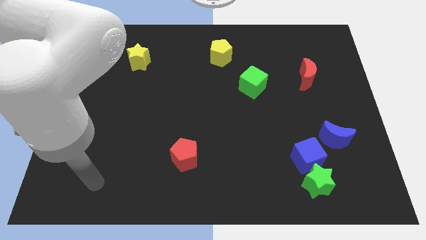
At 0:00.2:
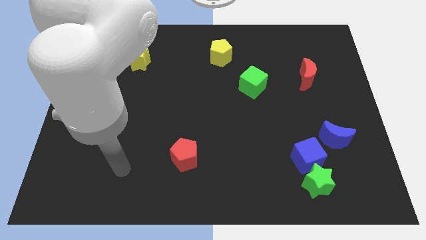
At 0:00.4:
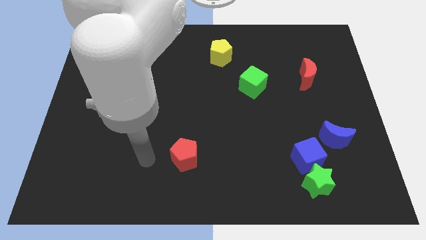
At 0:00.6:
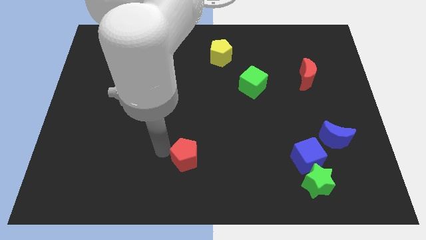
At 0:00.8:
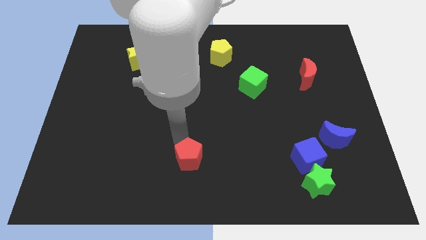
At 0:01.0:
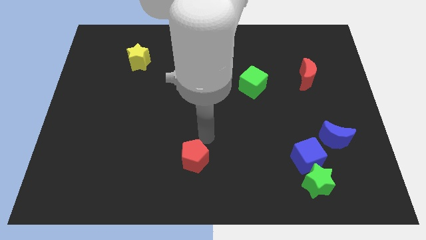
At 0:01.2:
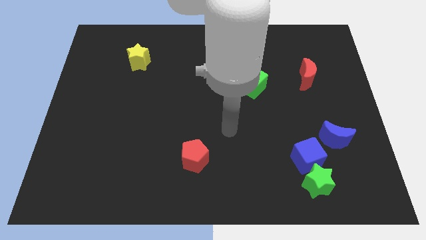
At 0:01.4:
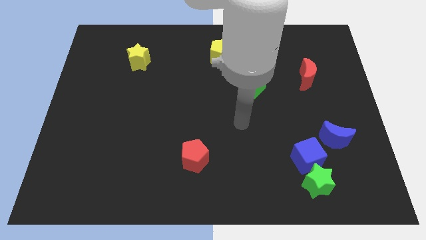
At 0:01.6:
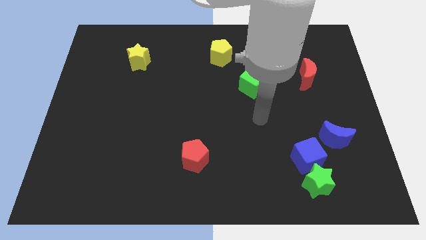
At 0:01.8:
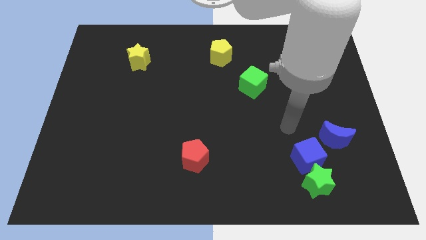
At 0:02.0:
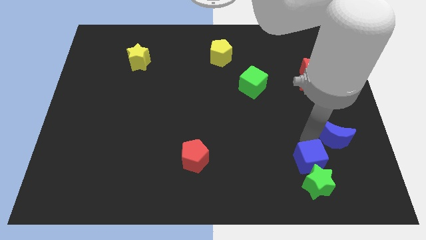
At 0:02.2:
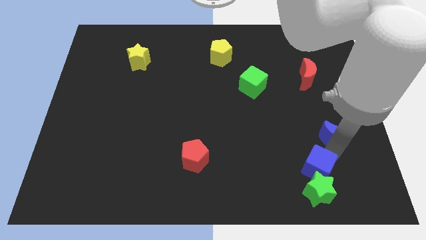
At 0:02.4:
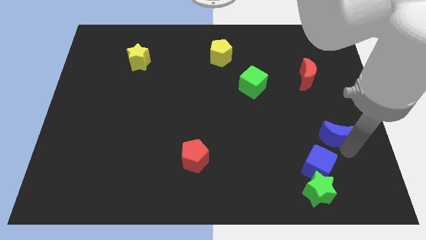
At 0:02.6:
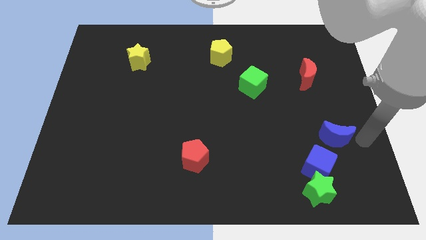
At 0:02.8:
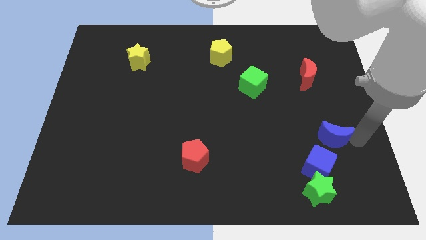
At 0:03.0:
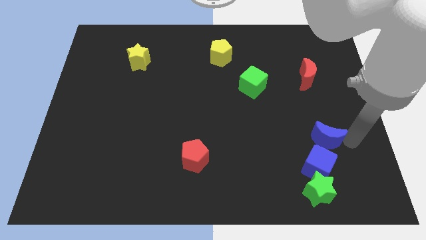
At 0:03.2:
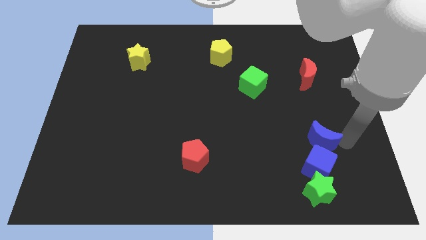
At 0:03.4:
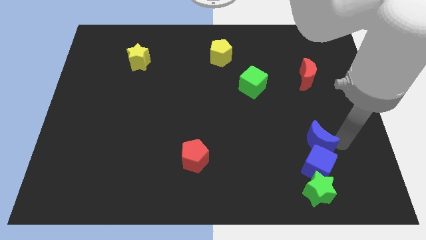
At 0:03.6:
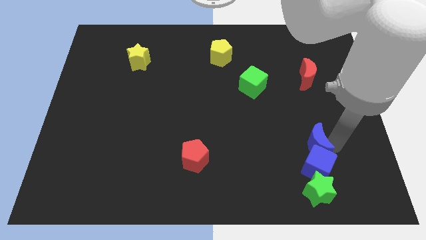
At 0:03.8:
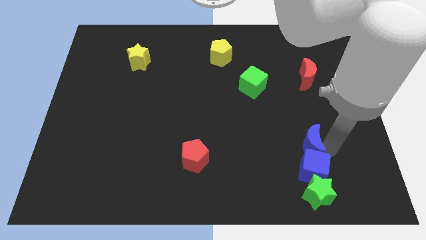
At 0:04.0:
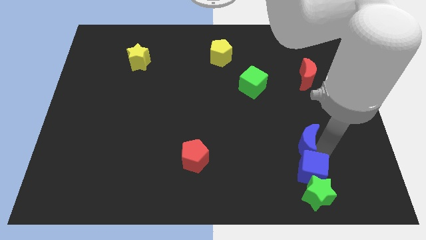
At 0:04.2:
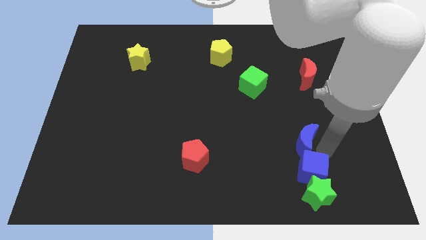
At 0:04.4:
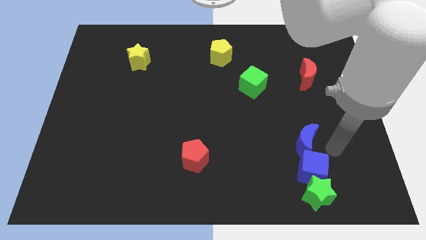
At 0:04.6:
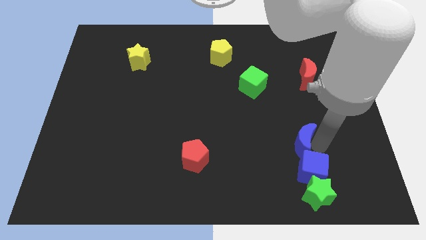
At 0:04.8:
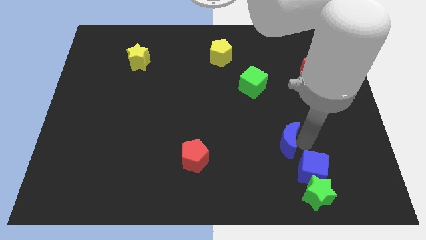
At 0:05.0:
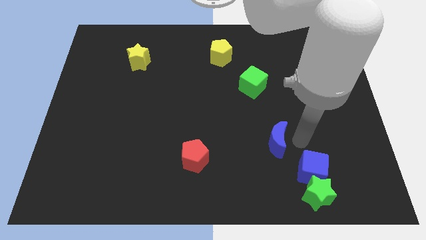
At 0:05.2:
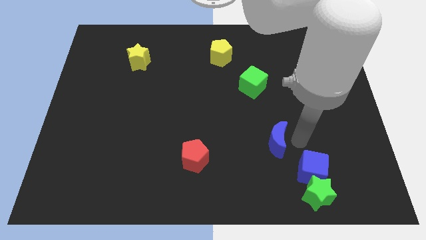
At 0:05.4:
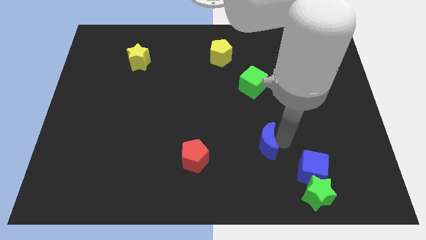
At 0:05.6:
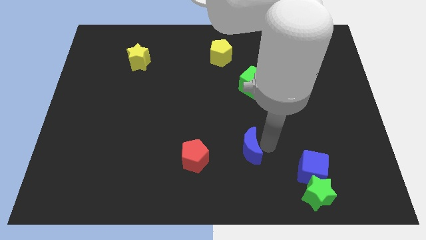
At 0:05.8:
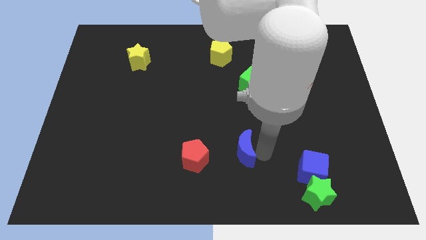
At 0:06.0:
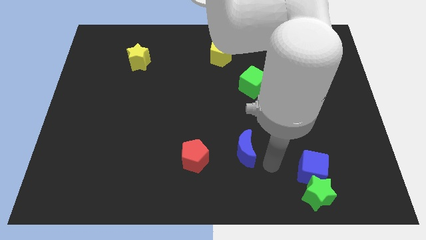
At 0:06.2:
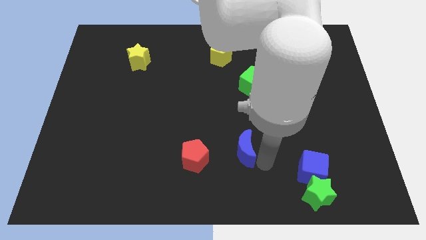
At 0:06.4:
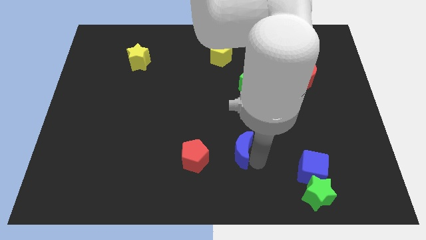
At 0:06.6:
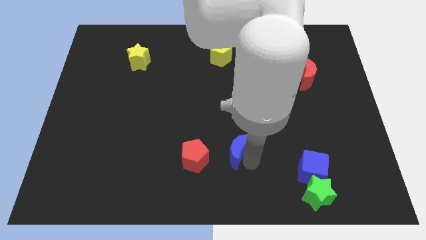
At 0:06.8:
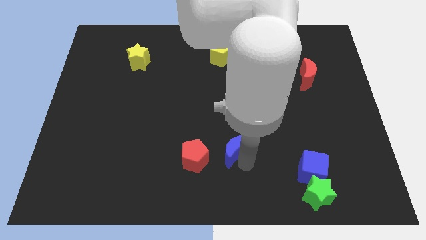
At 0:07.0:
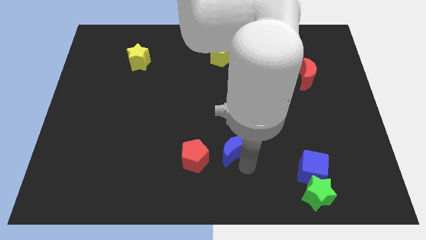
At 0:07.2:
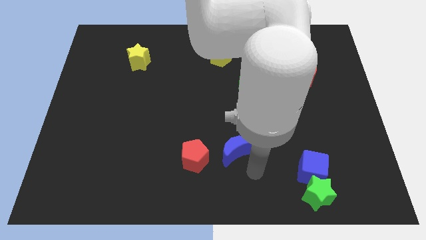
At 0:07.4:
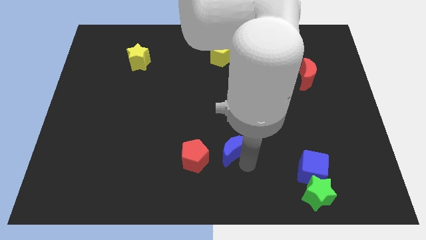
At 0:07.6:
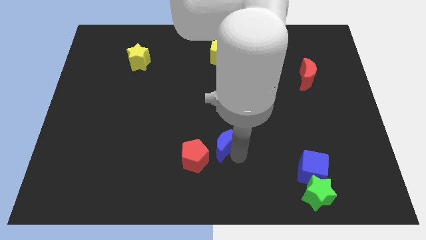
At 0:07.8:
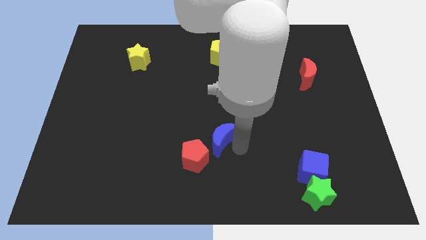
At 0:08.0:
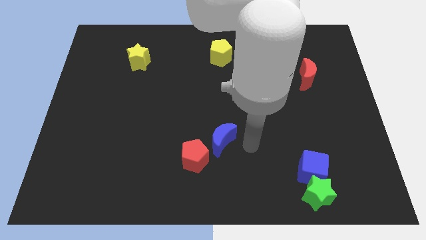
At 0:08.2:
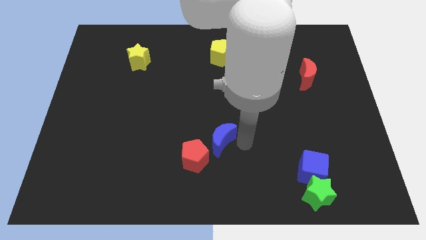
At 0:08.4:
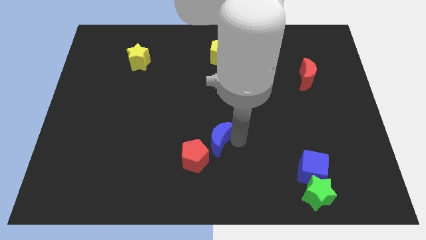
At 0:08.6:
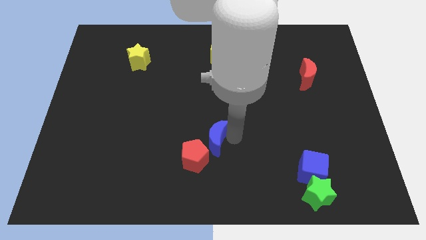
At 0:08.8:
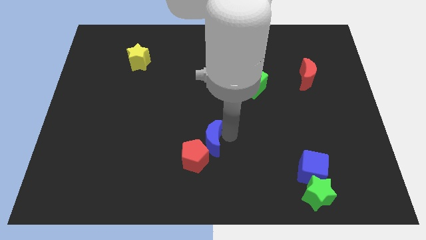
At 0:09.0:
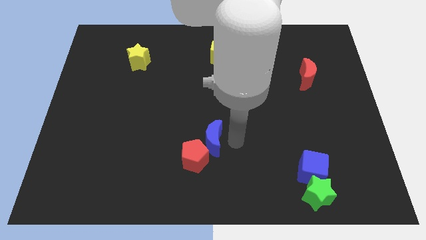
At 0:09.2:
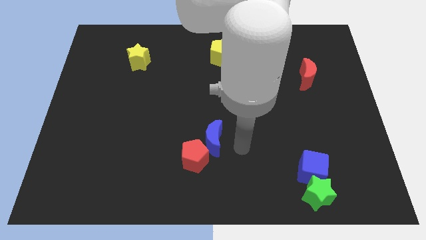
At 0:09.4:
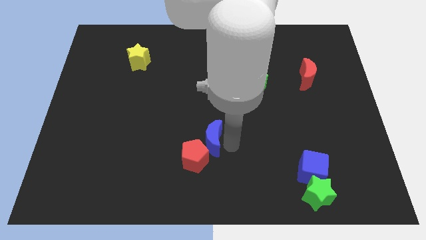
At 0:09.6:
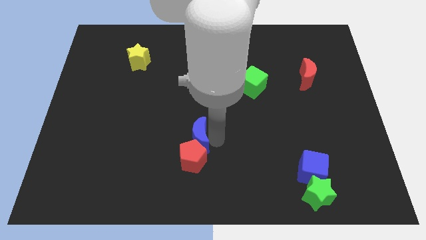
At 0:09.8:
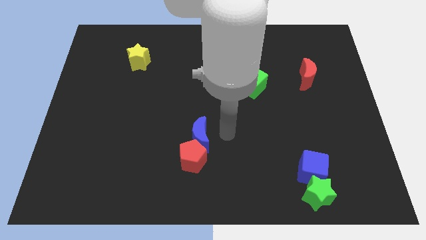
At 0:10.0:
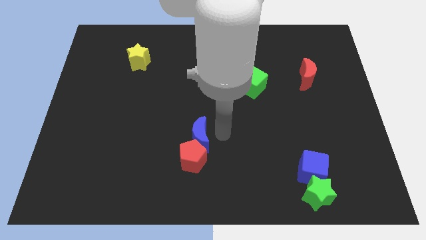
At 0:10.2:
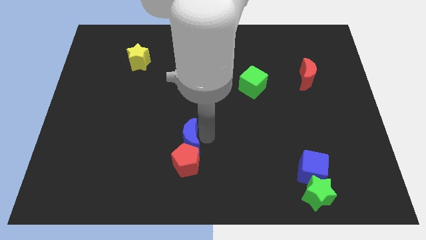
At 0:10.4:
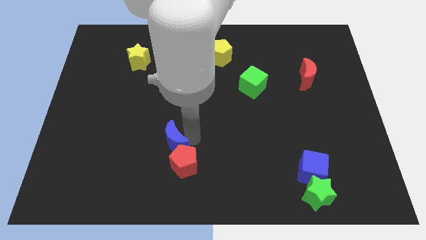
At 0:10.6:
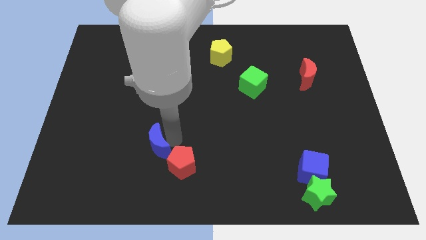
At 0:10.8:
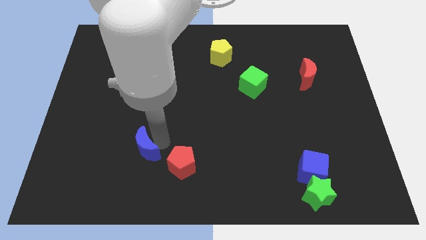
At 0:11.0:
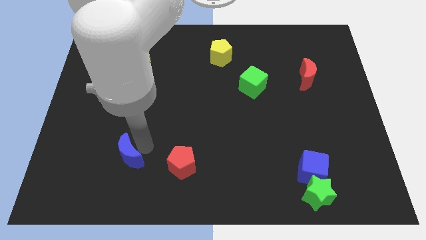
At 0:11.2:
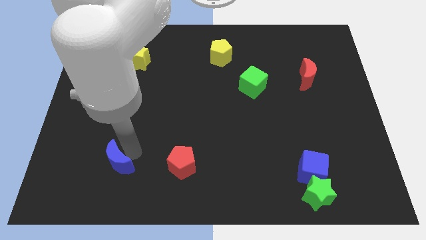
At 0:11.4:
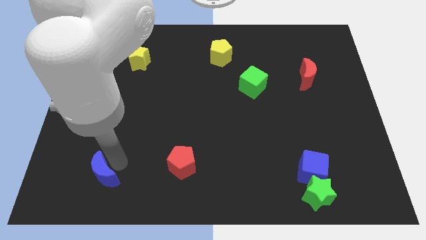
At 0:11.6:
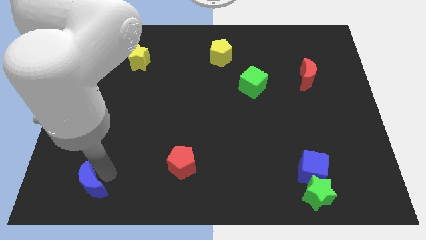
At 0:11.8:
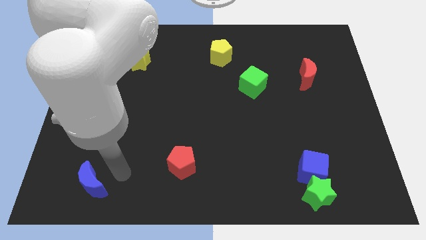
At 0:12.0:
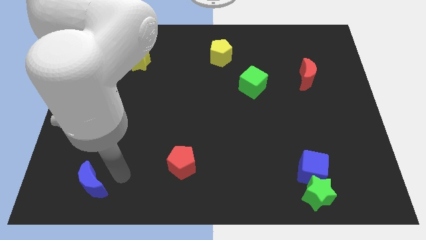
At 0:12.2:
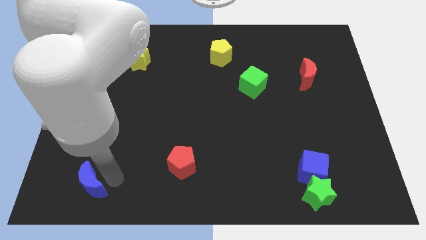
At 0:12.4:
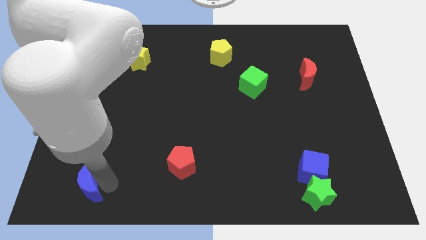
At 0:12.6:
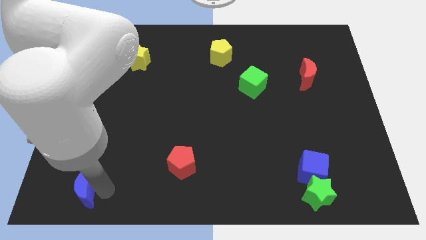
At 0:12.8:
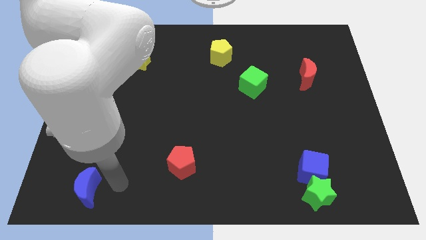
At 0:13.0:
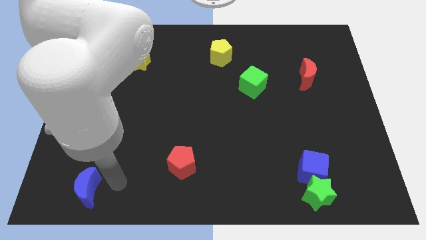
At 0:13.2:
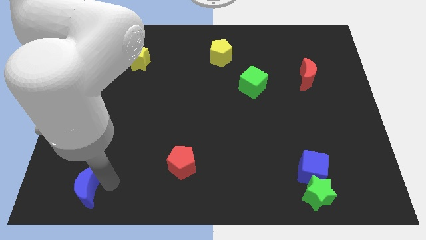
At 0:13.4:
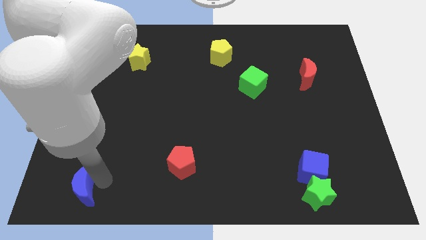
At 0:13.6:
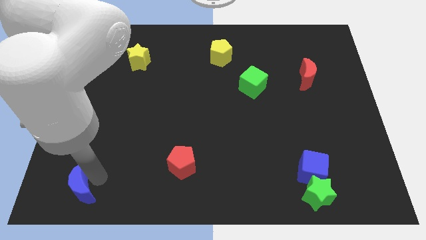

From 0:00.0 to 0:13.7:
push the blue moon to the bottom left corner

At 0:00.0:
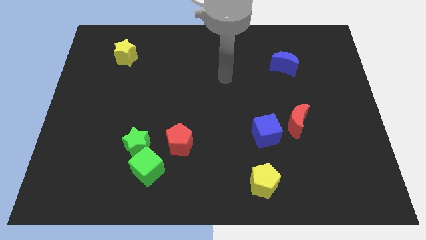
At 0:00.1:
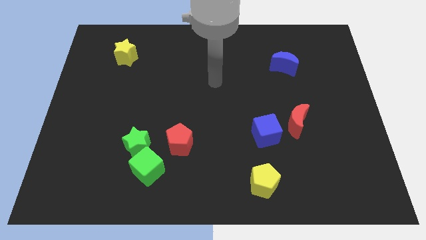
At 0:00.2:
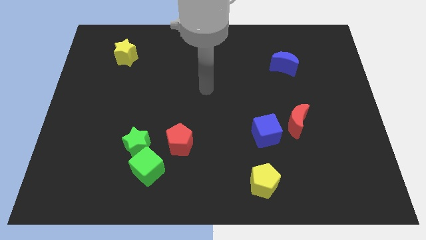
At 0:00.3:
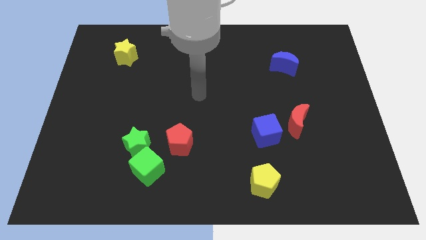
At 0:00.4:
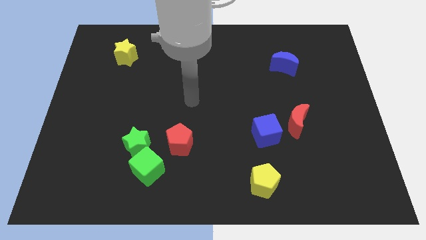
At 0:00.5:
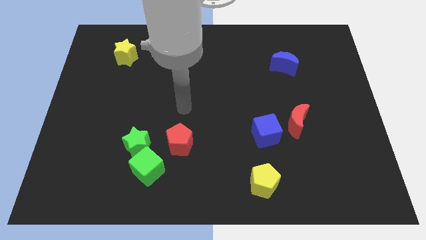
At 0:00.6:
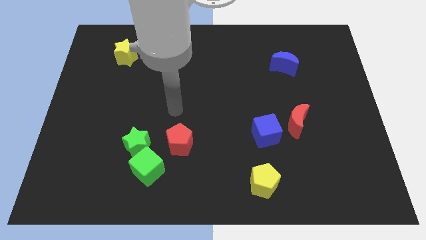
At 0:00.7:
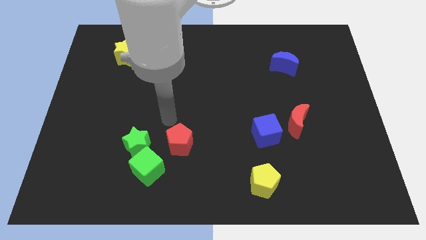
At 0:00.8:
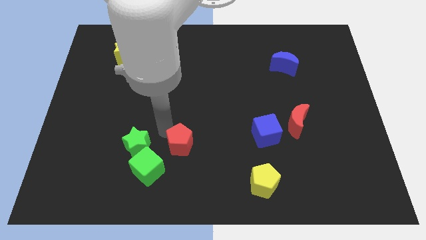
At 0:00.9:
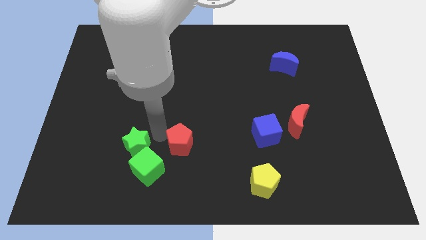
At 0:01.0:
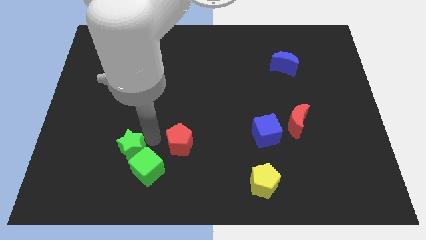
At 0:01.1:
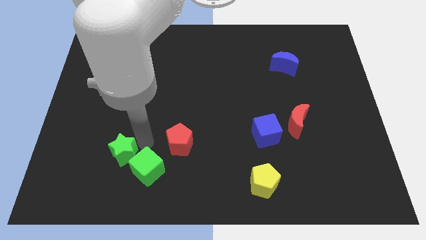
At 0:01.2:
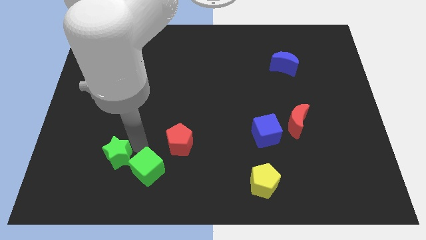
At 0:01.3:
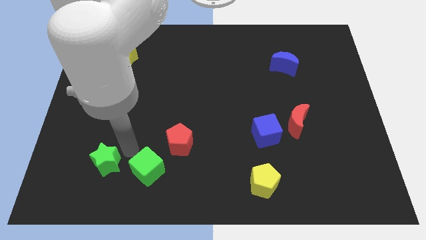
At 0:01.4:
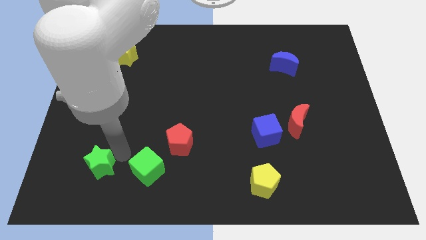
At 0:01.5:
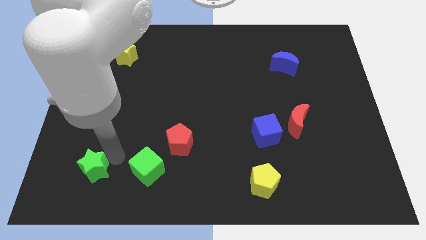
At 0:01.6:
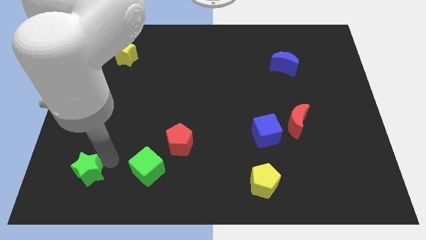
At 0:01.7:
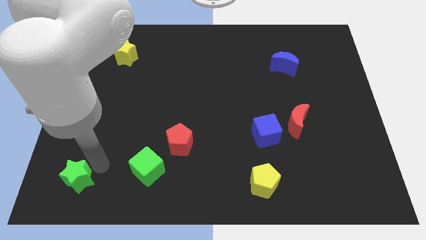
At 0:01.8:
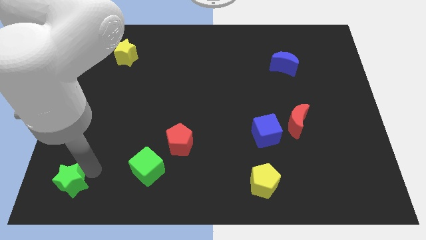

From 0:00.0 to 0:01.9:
push the green star to the bottom left corner
